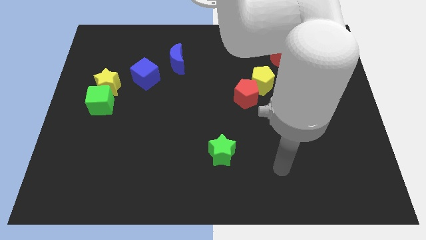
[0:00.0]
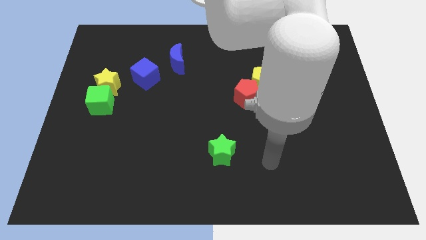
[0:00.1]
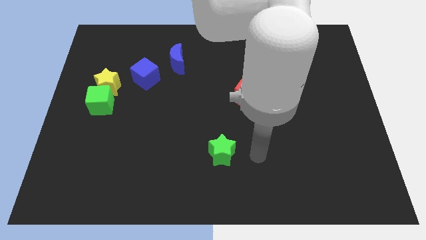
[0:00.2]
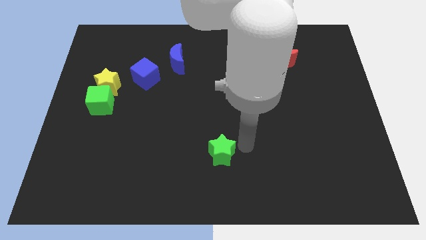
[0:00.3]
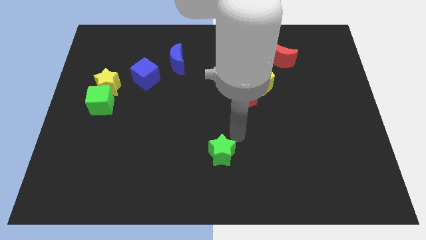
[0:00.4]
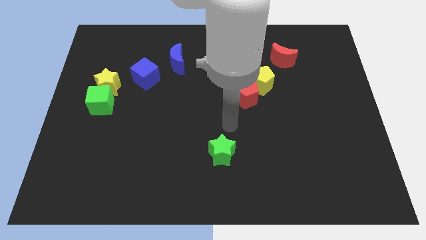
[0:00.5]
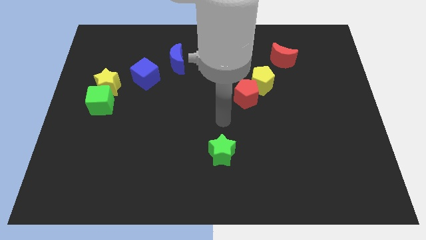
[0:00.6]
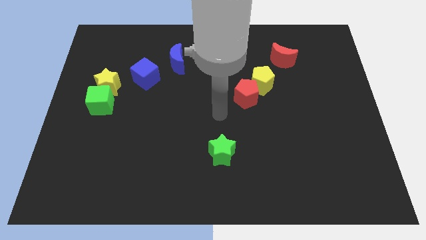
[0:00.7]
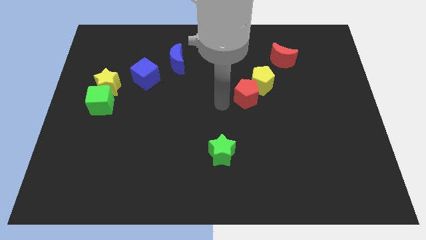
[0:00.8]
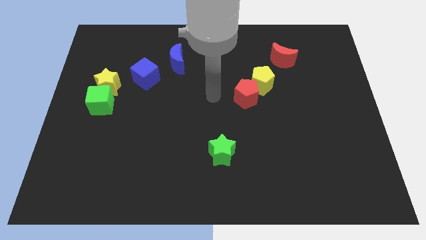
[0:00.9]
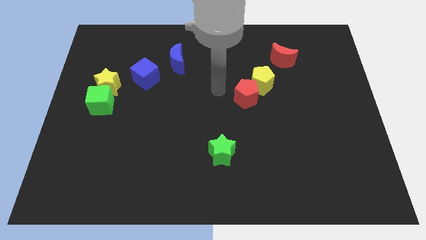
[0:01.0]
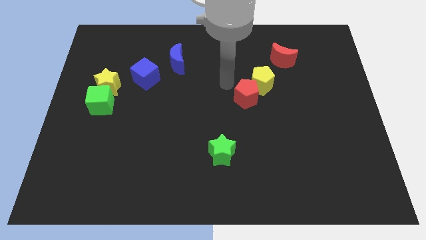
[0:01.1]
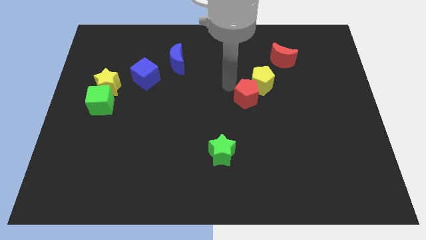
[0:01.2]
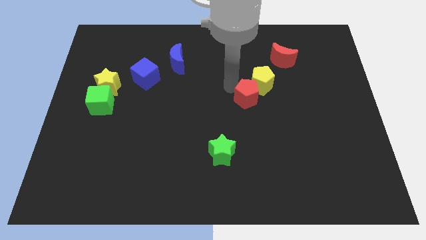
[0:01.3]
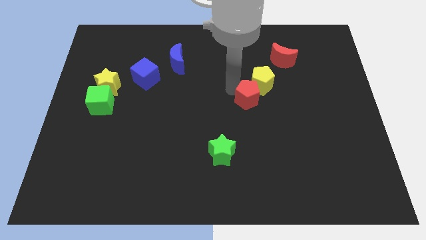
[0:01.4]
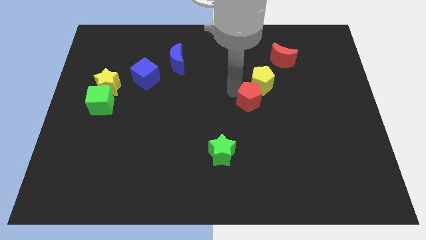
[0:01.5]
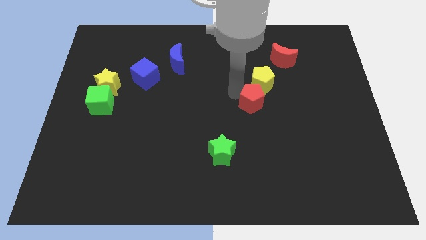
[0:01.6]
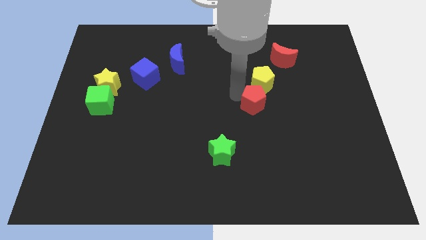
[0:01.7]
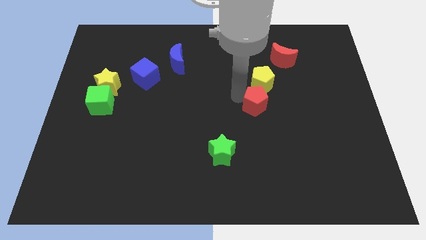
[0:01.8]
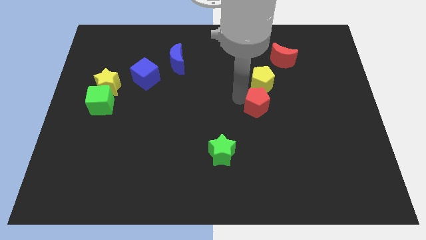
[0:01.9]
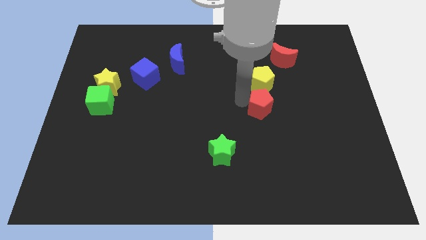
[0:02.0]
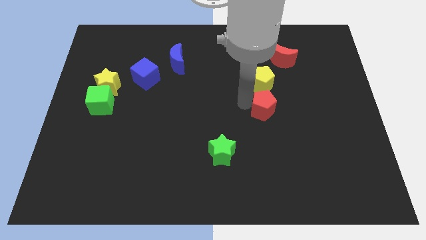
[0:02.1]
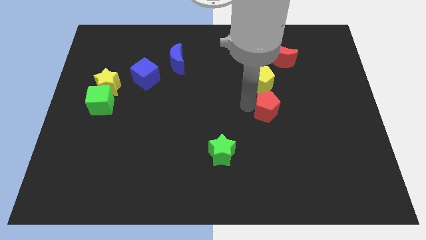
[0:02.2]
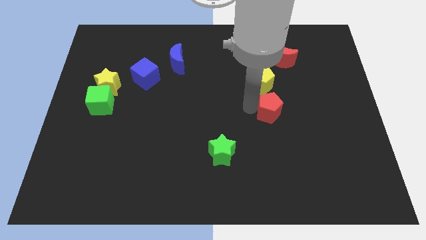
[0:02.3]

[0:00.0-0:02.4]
slightly move the red pentagon diagonally downwards and right

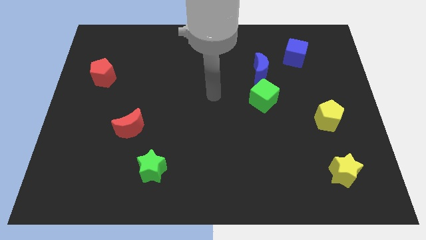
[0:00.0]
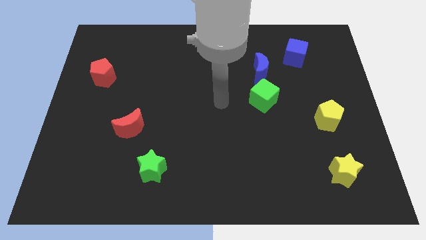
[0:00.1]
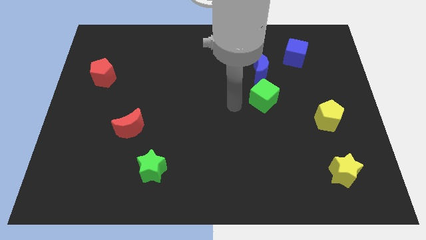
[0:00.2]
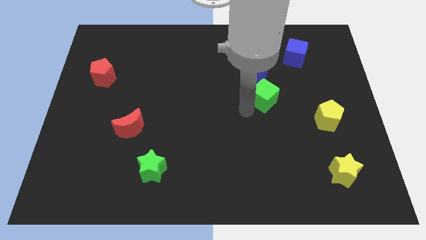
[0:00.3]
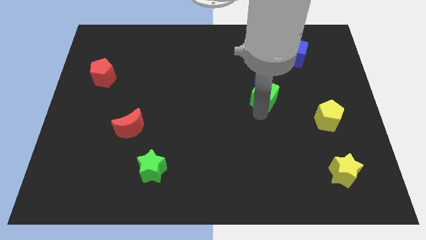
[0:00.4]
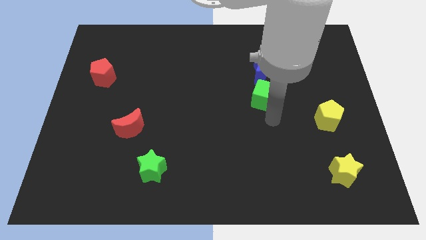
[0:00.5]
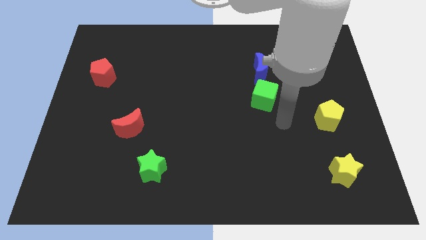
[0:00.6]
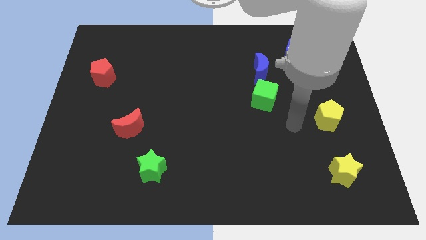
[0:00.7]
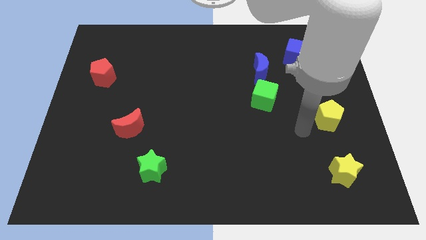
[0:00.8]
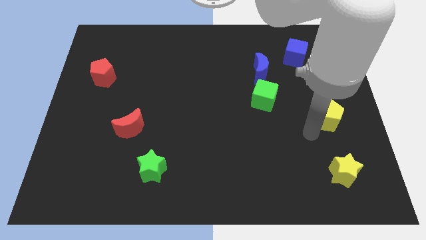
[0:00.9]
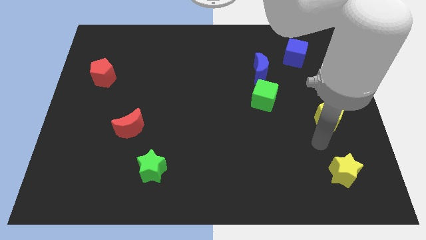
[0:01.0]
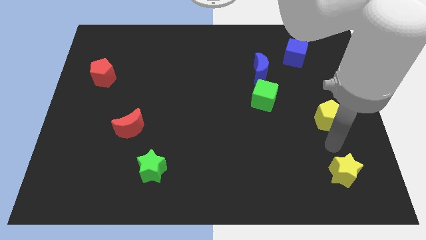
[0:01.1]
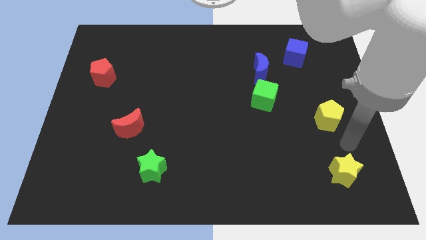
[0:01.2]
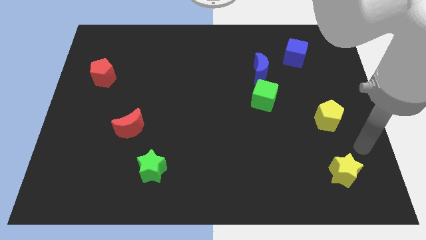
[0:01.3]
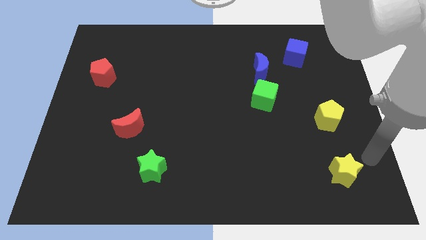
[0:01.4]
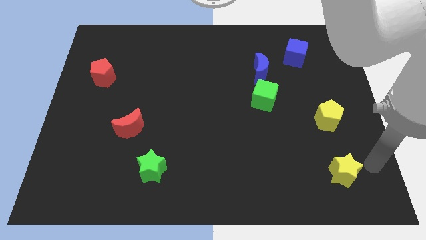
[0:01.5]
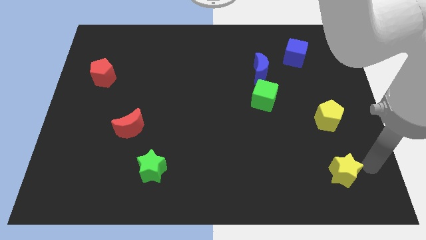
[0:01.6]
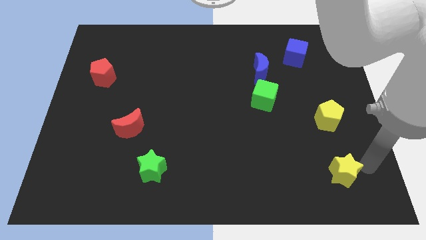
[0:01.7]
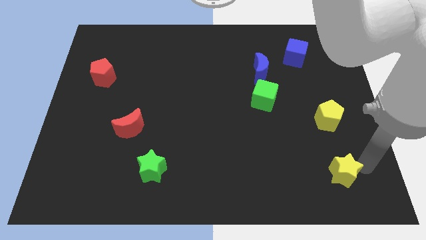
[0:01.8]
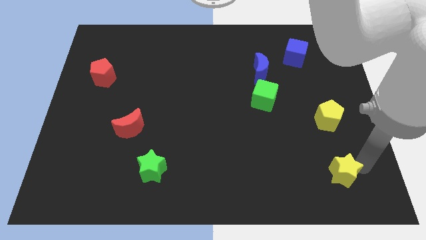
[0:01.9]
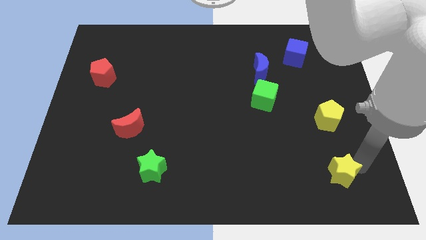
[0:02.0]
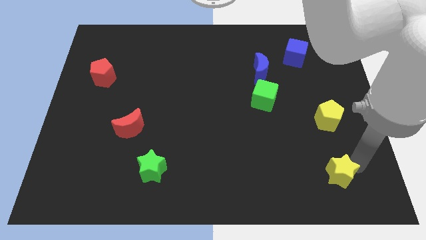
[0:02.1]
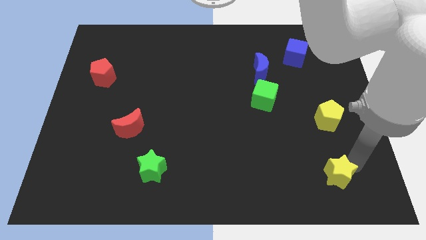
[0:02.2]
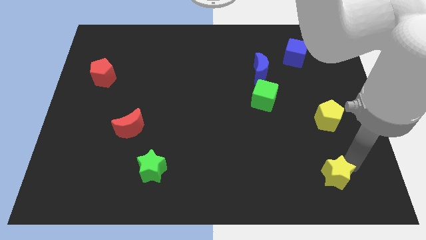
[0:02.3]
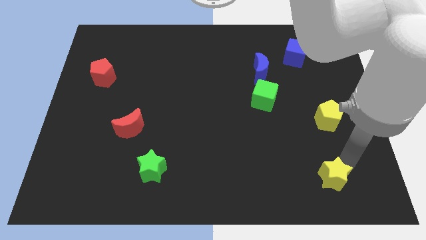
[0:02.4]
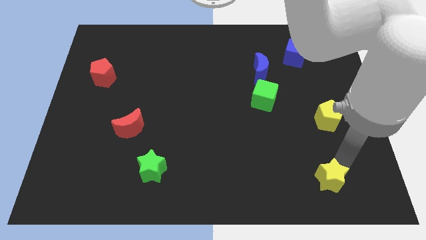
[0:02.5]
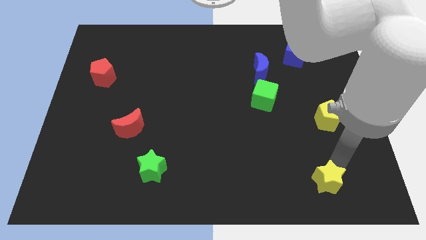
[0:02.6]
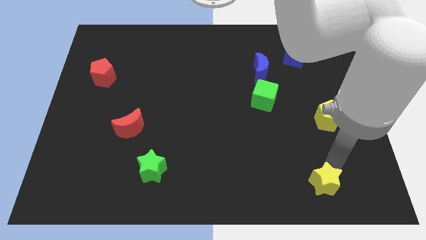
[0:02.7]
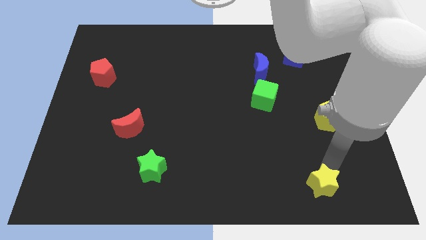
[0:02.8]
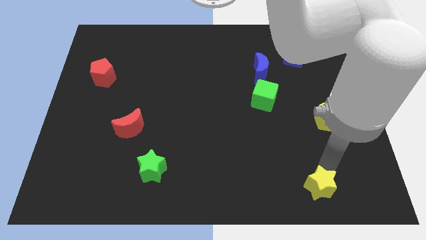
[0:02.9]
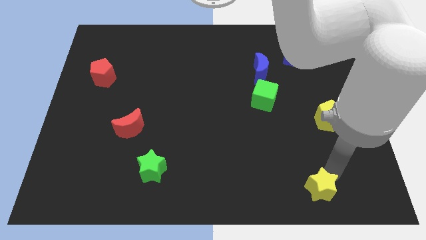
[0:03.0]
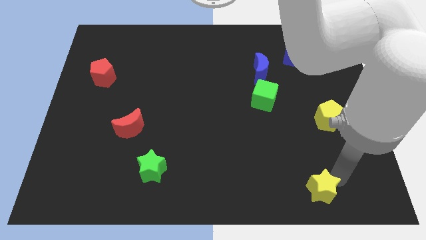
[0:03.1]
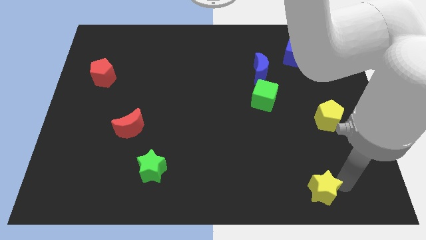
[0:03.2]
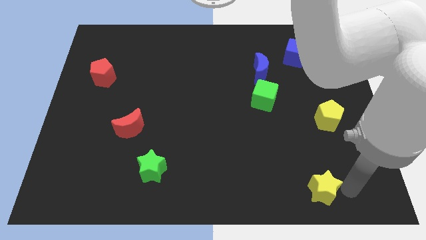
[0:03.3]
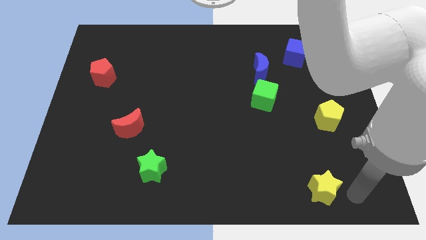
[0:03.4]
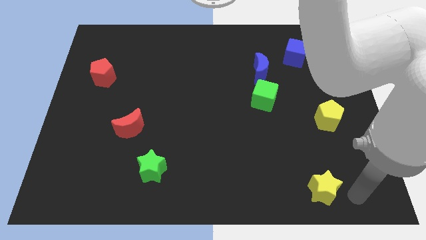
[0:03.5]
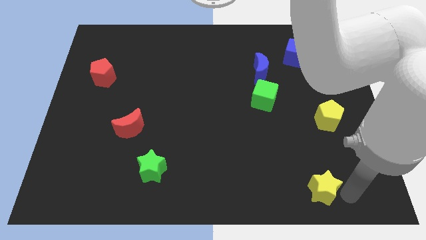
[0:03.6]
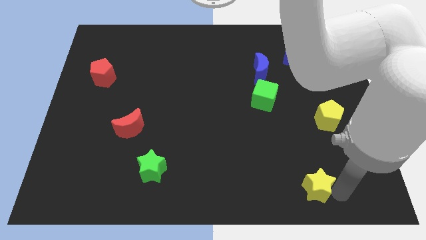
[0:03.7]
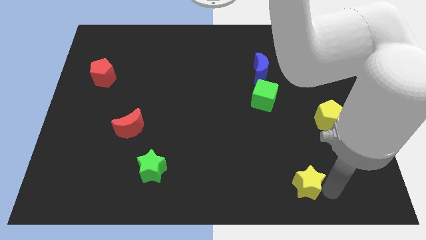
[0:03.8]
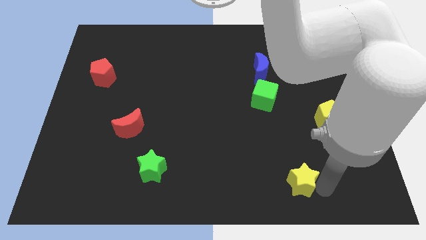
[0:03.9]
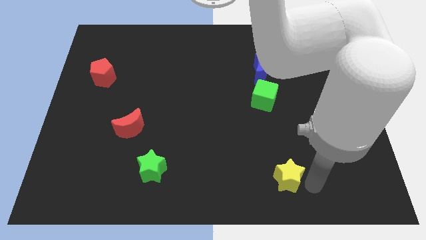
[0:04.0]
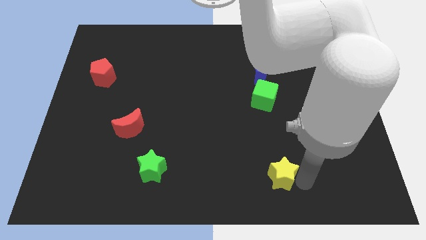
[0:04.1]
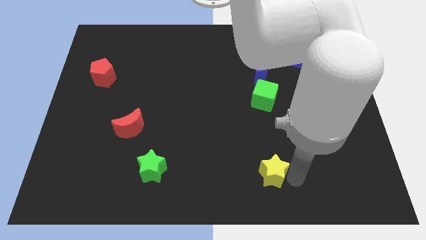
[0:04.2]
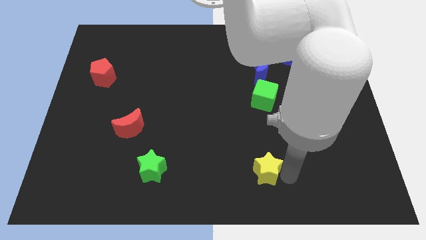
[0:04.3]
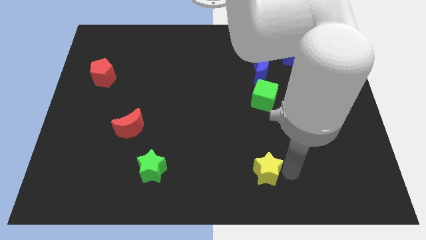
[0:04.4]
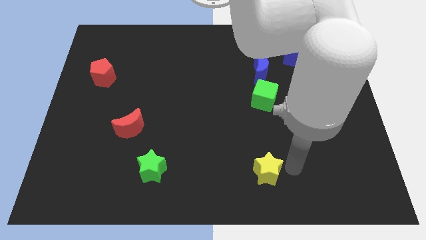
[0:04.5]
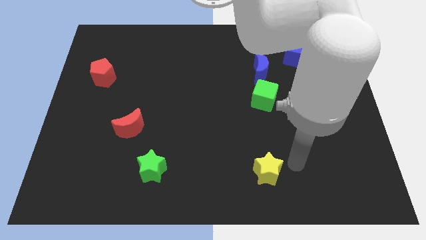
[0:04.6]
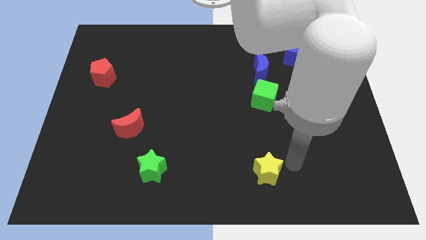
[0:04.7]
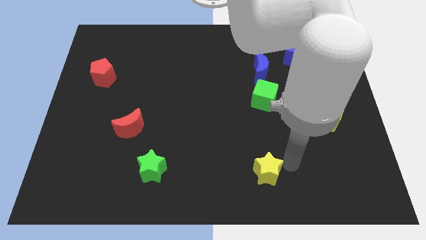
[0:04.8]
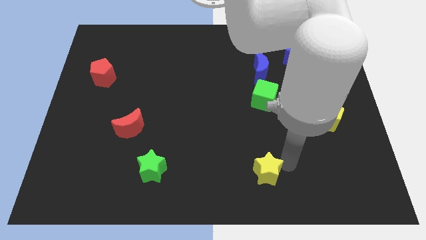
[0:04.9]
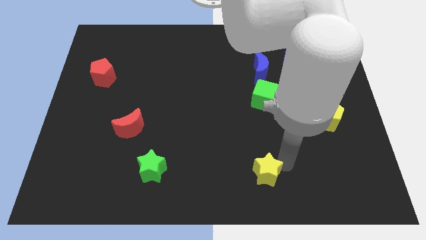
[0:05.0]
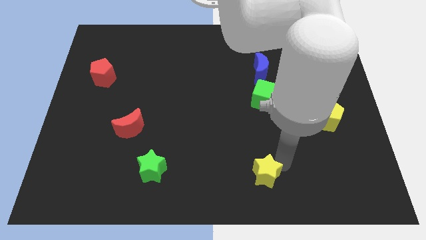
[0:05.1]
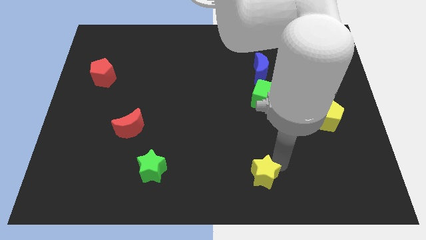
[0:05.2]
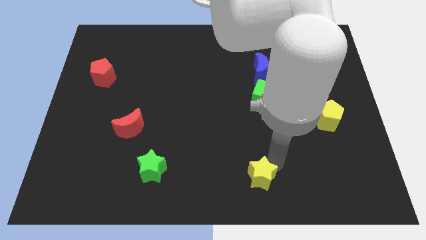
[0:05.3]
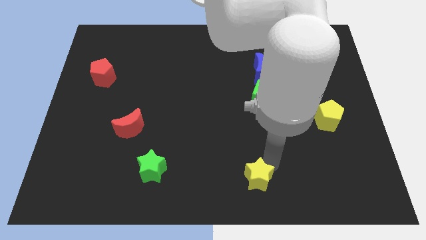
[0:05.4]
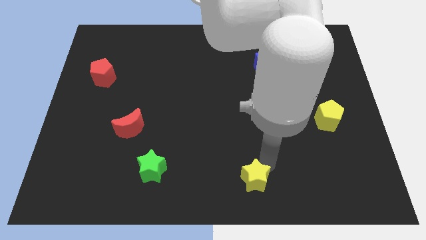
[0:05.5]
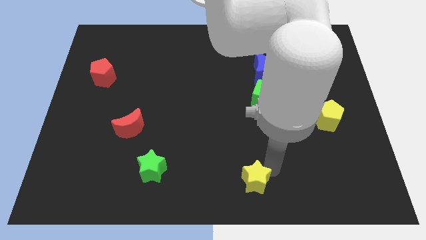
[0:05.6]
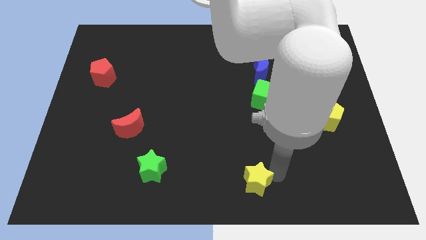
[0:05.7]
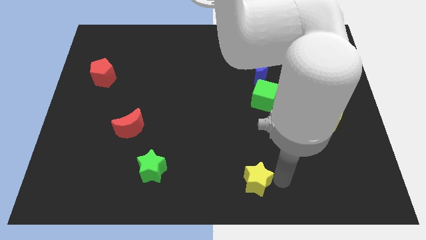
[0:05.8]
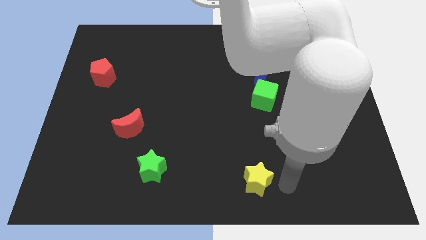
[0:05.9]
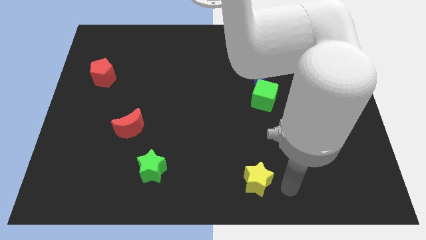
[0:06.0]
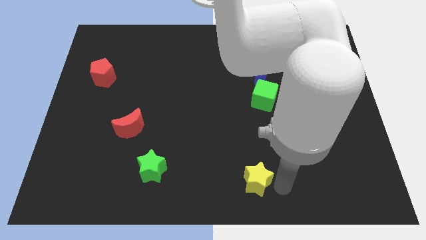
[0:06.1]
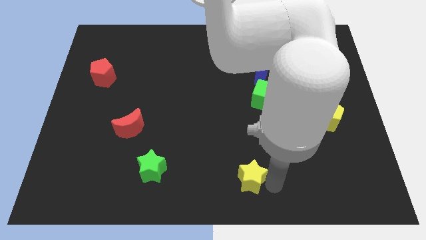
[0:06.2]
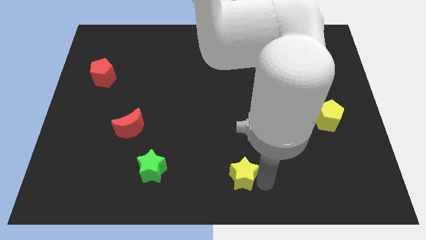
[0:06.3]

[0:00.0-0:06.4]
push the yellow star to the left
